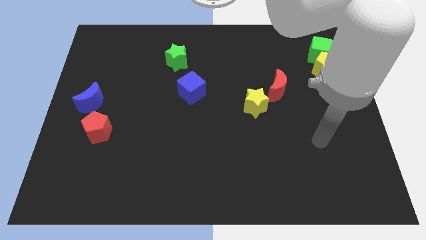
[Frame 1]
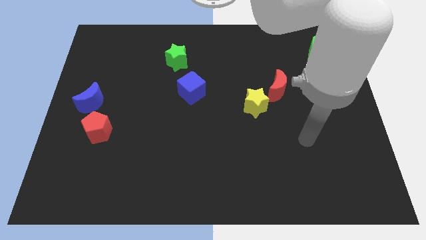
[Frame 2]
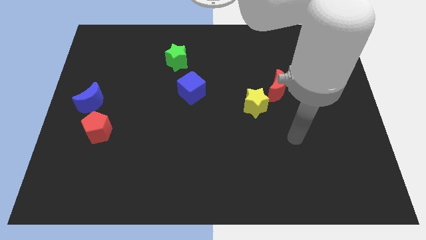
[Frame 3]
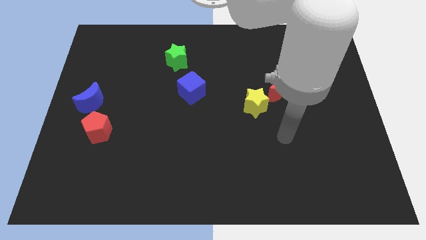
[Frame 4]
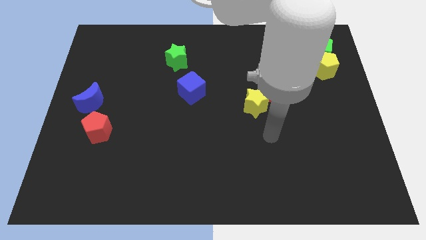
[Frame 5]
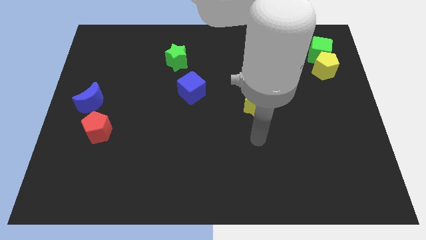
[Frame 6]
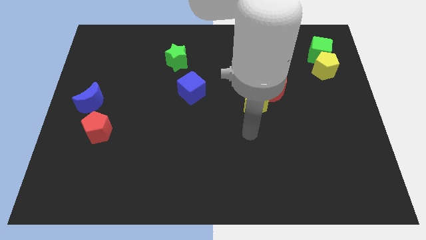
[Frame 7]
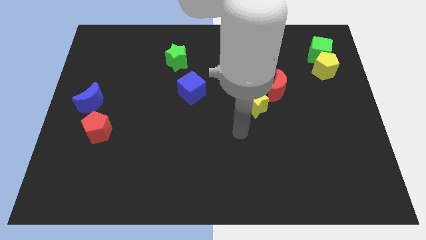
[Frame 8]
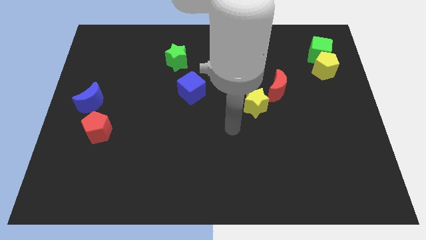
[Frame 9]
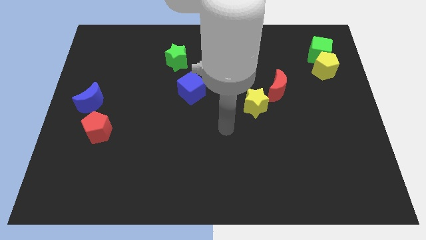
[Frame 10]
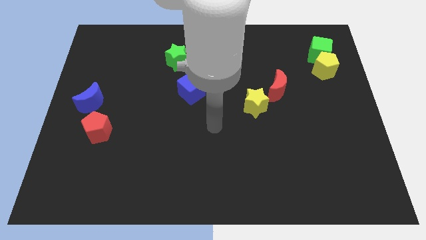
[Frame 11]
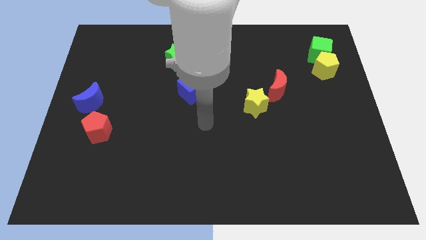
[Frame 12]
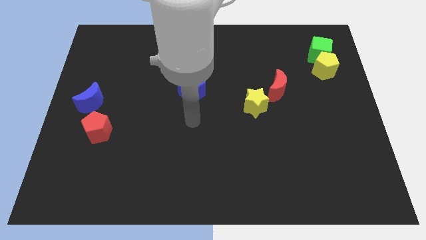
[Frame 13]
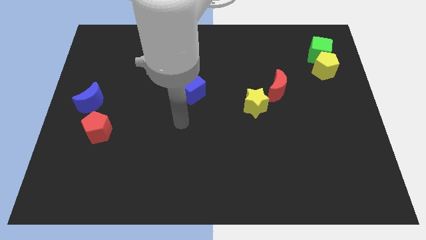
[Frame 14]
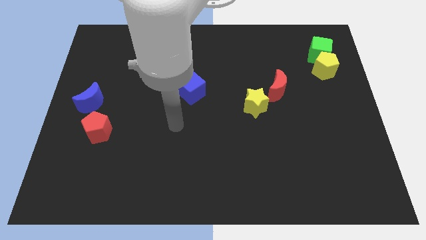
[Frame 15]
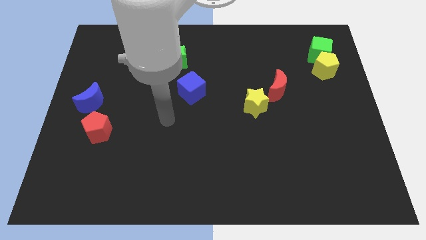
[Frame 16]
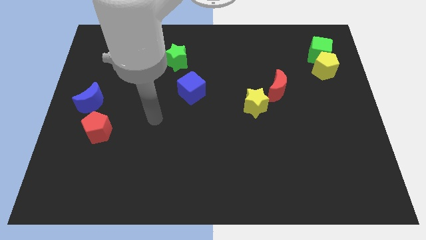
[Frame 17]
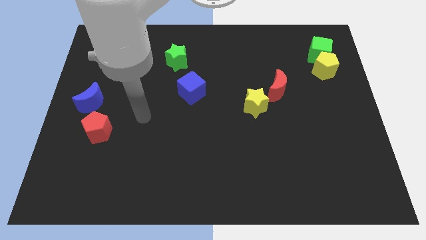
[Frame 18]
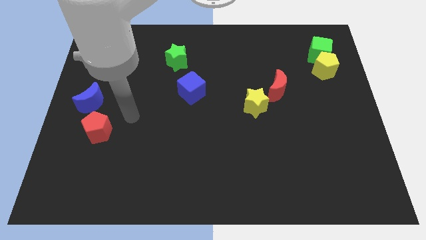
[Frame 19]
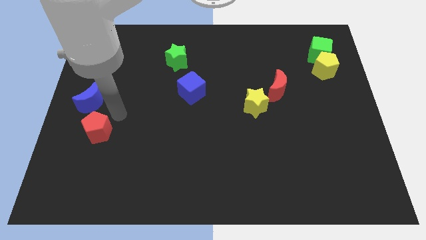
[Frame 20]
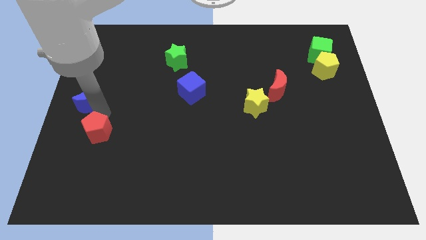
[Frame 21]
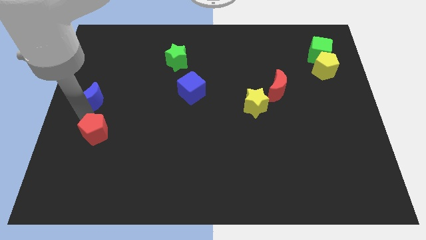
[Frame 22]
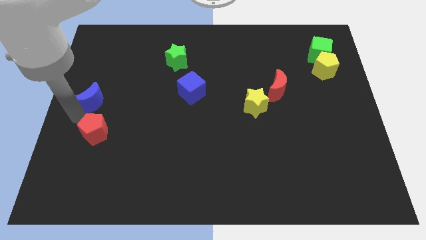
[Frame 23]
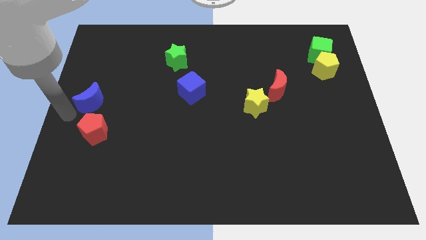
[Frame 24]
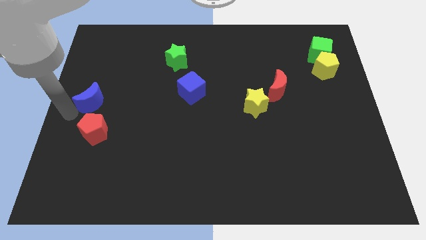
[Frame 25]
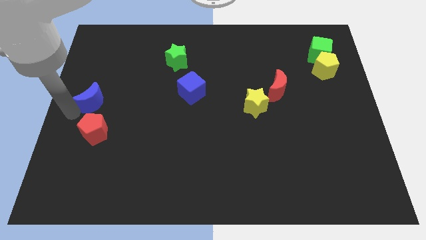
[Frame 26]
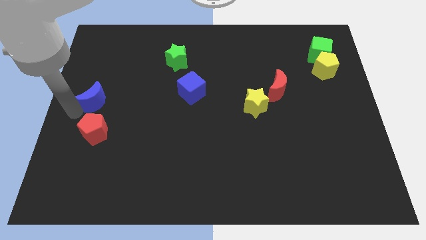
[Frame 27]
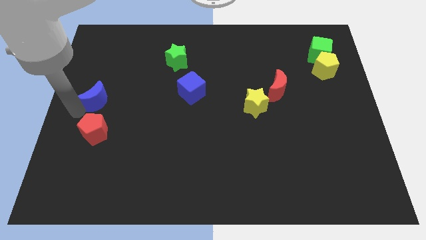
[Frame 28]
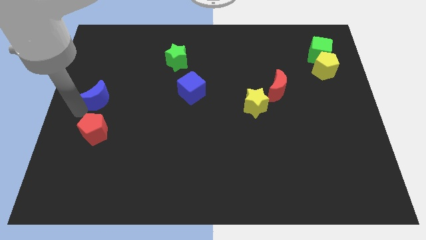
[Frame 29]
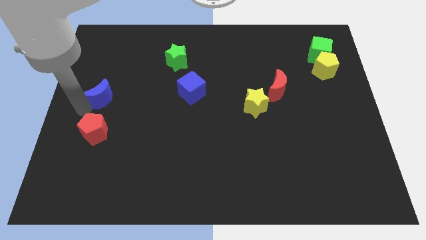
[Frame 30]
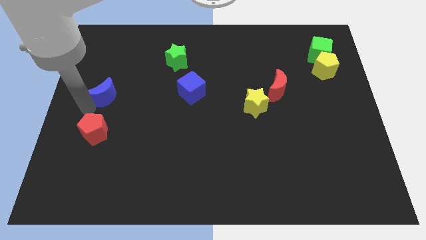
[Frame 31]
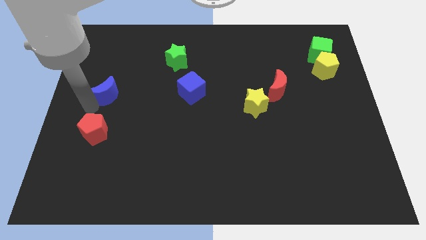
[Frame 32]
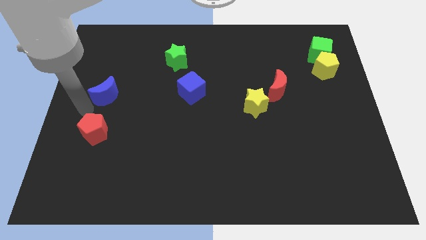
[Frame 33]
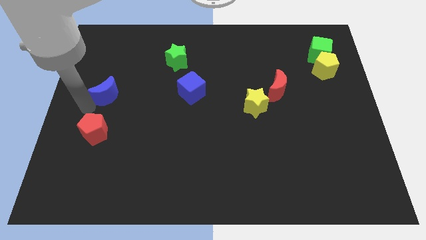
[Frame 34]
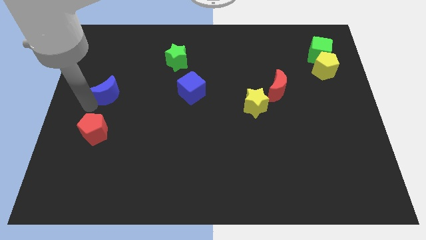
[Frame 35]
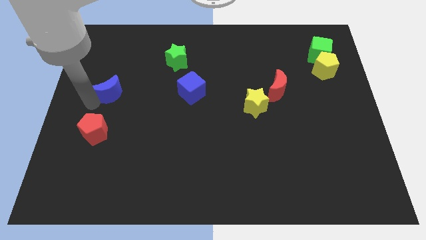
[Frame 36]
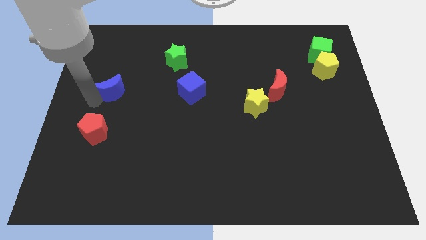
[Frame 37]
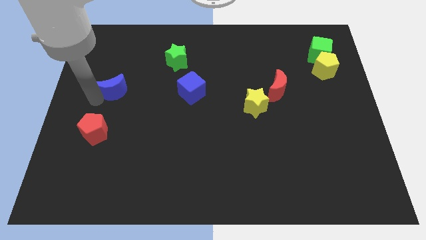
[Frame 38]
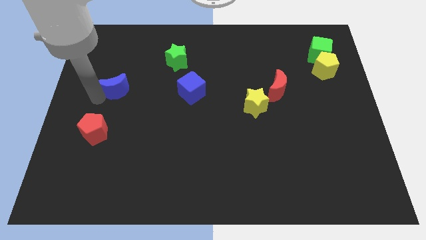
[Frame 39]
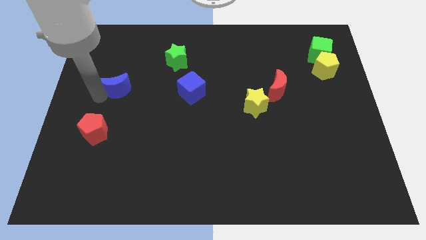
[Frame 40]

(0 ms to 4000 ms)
move the blue moon a little bit up and then right

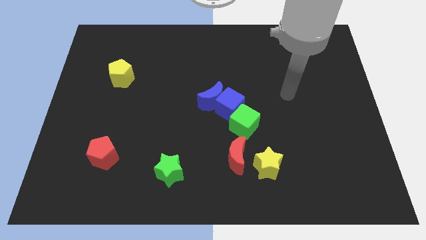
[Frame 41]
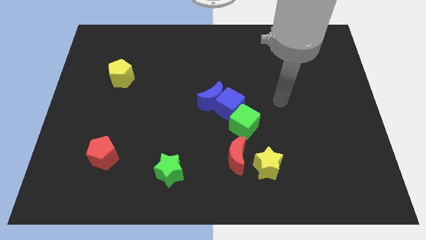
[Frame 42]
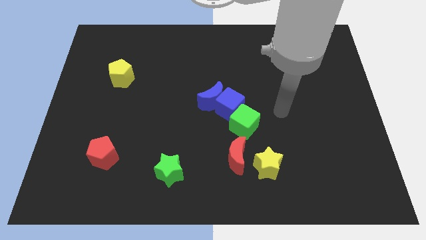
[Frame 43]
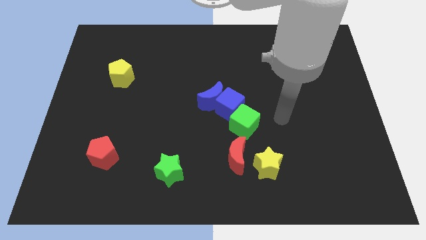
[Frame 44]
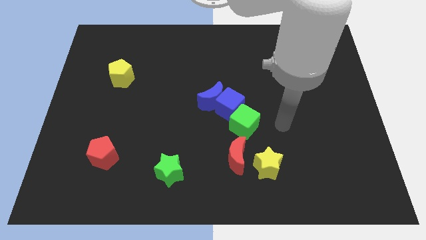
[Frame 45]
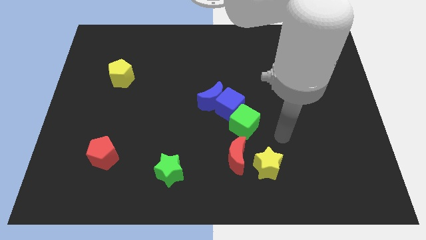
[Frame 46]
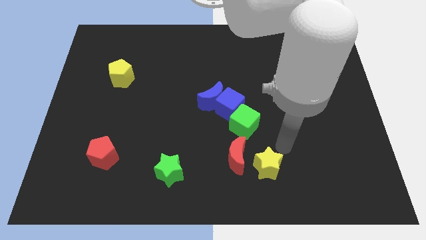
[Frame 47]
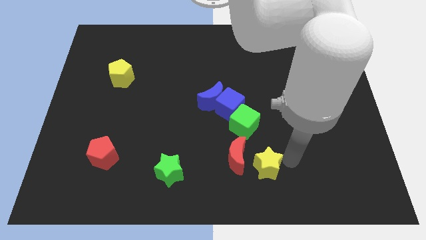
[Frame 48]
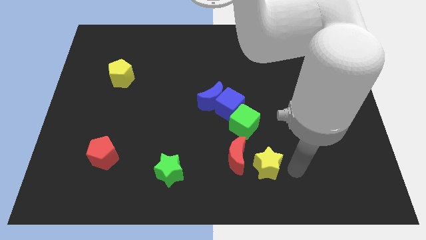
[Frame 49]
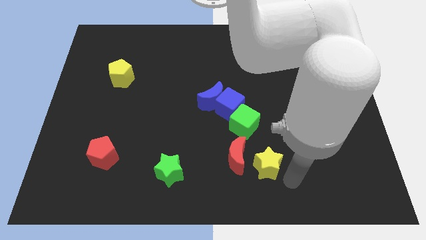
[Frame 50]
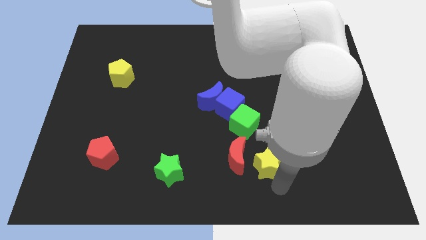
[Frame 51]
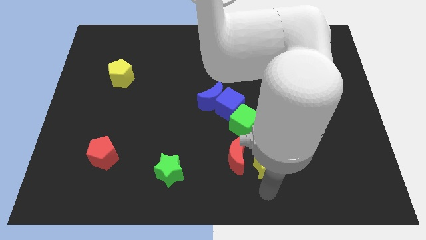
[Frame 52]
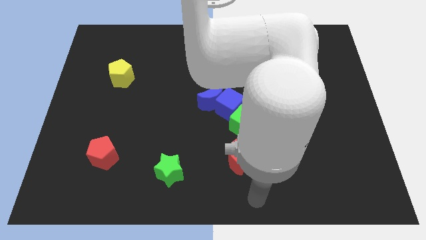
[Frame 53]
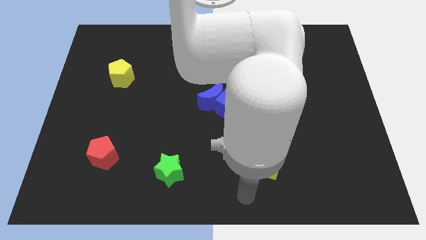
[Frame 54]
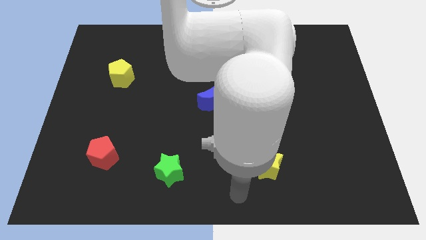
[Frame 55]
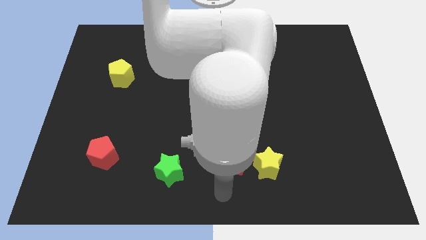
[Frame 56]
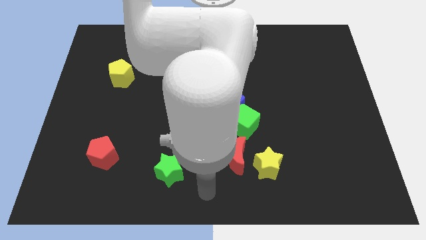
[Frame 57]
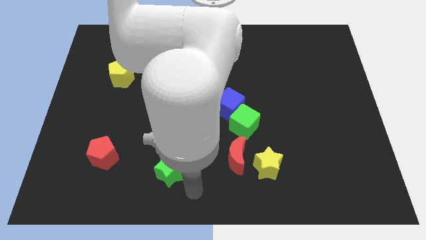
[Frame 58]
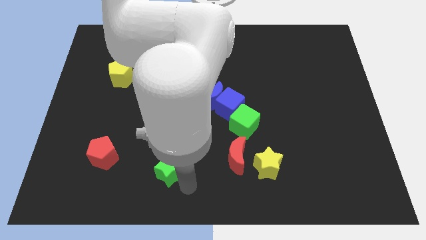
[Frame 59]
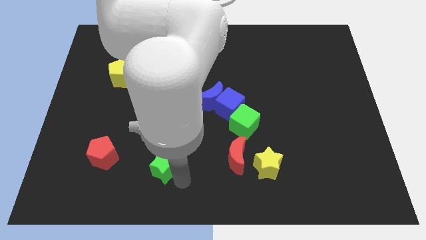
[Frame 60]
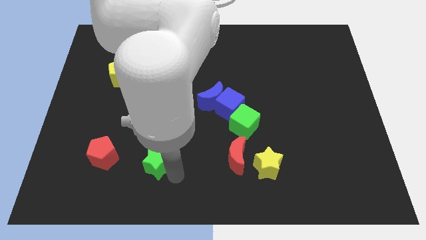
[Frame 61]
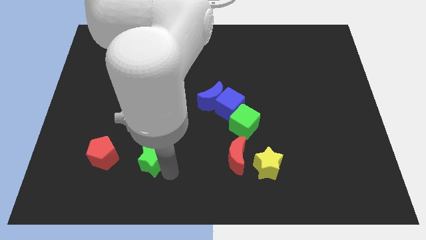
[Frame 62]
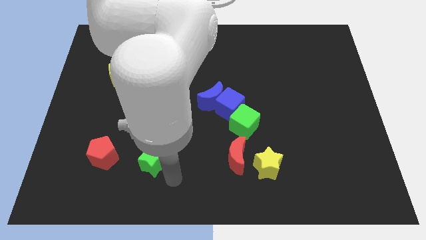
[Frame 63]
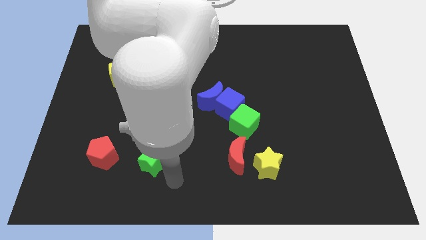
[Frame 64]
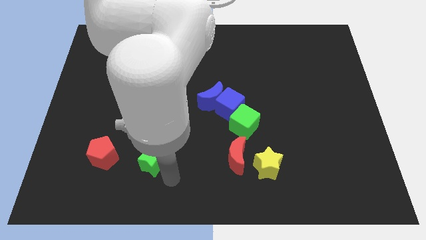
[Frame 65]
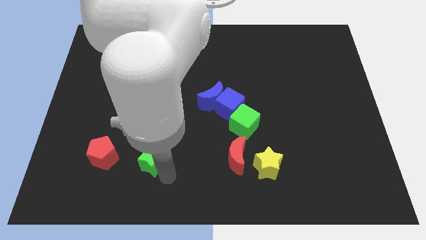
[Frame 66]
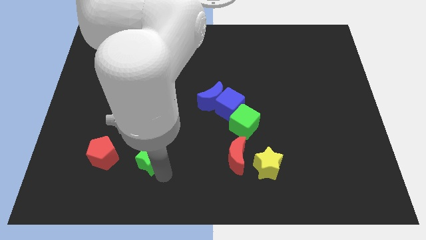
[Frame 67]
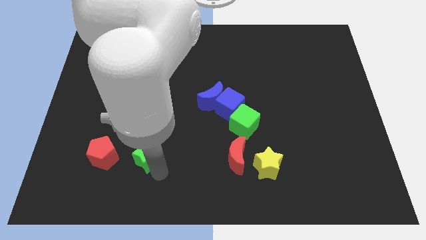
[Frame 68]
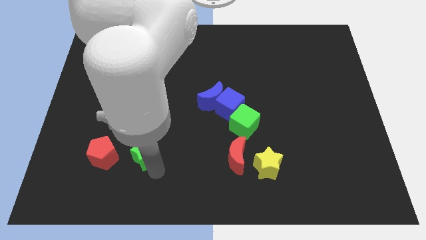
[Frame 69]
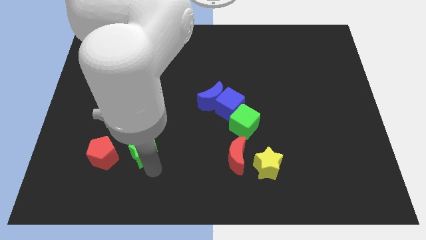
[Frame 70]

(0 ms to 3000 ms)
slightly push the green star upwards and then left

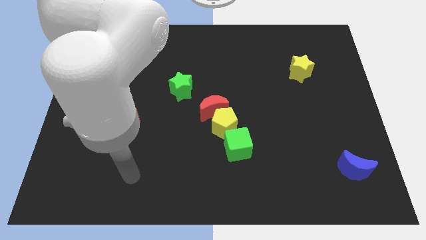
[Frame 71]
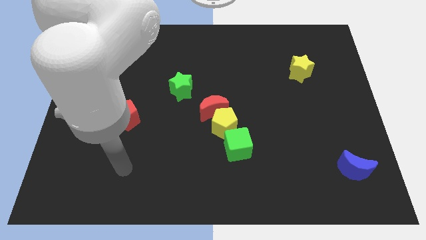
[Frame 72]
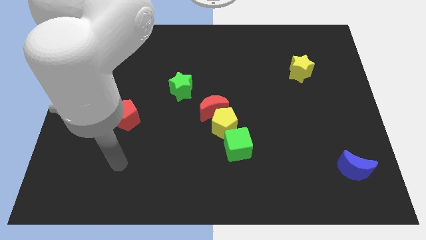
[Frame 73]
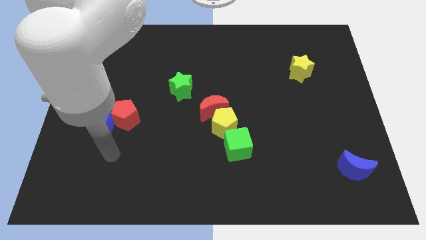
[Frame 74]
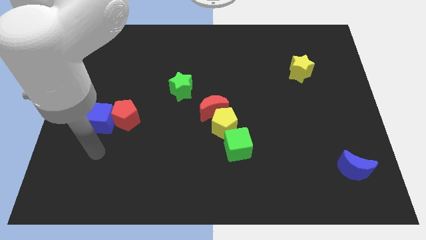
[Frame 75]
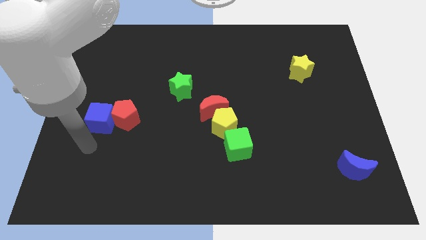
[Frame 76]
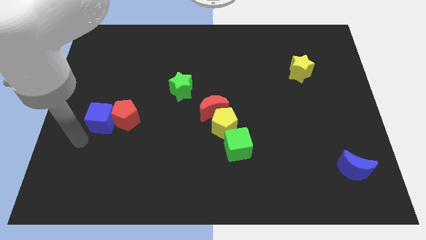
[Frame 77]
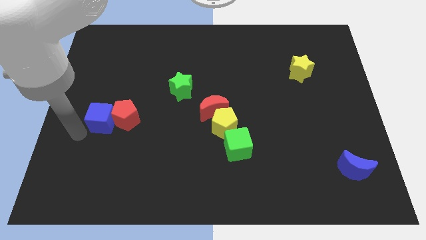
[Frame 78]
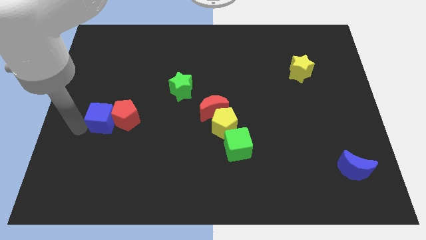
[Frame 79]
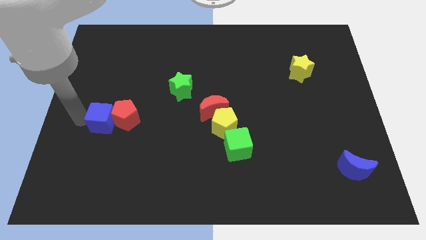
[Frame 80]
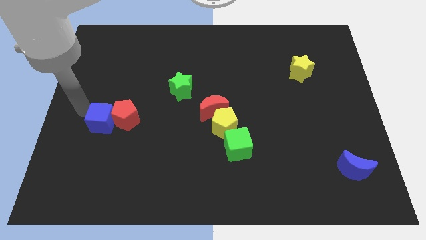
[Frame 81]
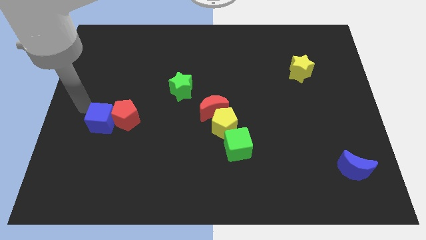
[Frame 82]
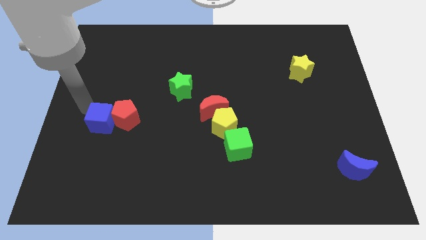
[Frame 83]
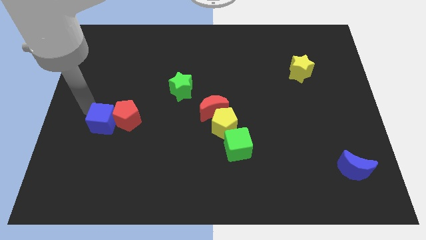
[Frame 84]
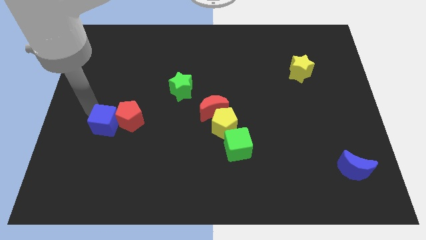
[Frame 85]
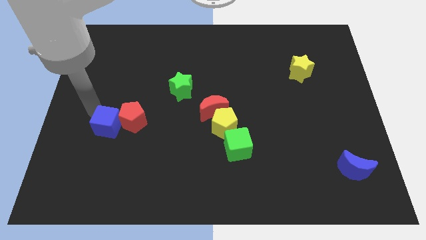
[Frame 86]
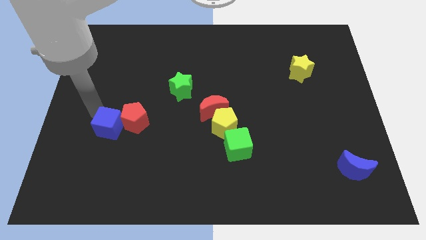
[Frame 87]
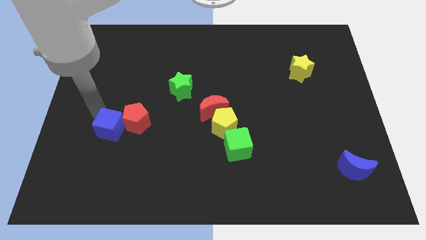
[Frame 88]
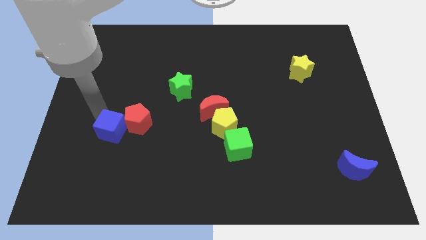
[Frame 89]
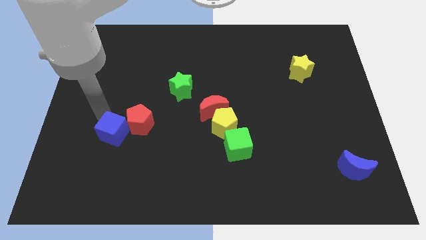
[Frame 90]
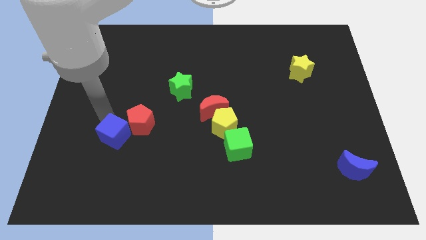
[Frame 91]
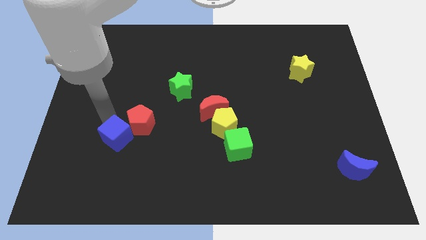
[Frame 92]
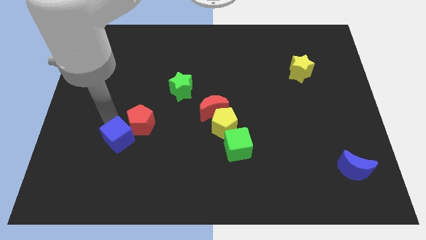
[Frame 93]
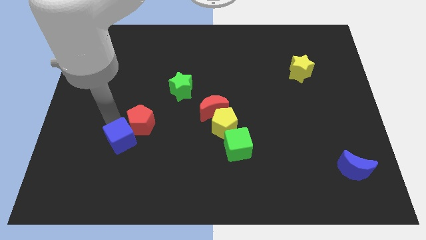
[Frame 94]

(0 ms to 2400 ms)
move the blue cube downwards and then right a little
